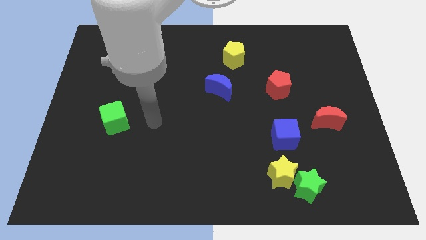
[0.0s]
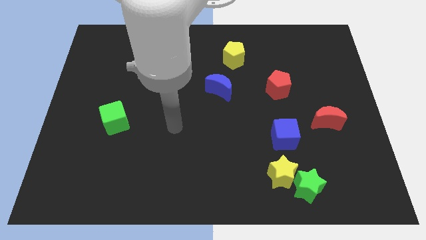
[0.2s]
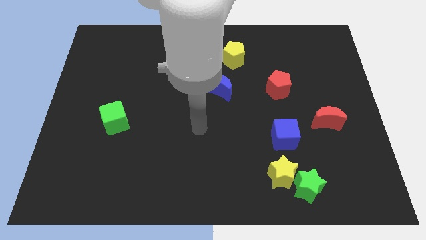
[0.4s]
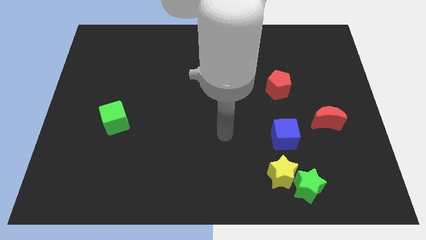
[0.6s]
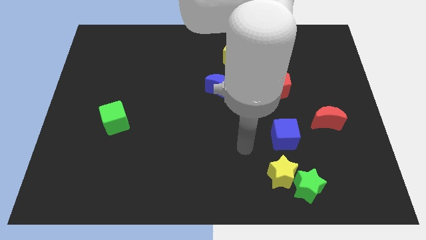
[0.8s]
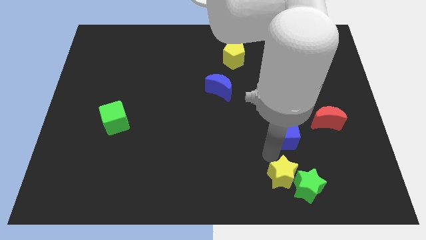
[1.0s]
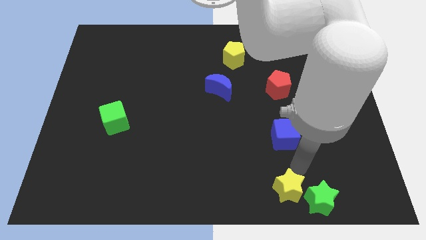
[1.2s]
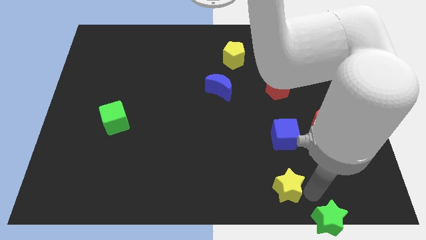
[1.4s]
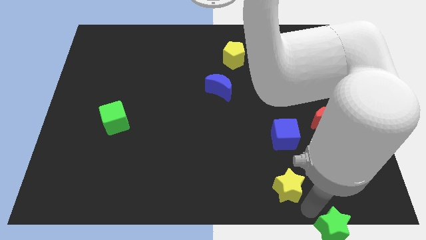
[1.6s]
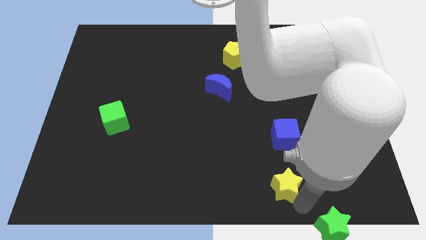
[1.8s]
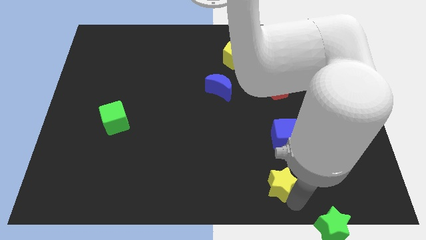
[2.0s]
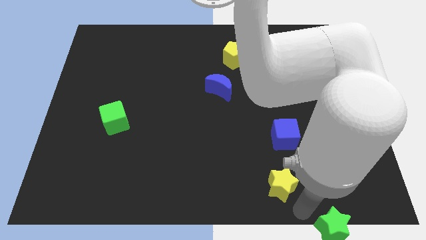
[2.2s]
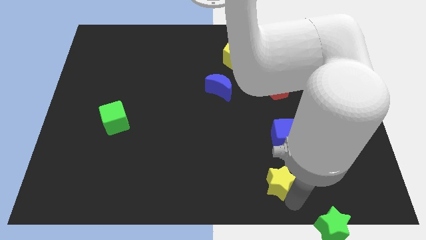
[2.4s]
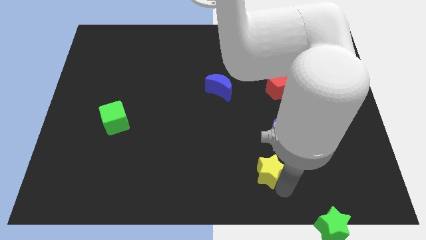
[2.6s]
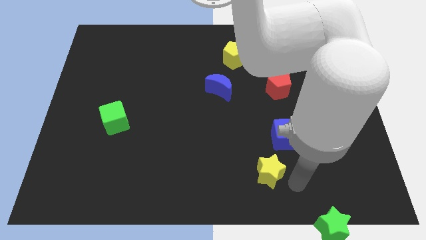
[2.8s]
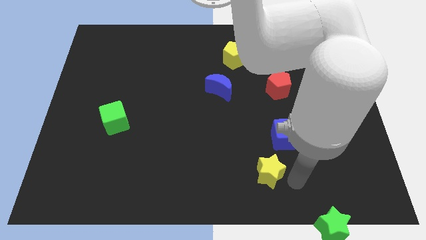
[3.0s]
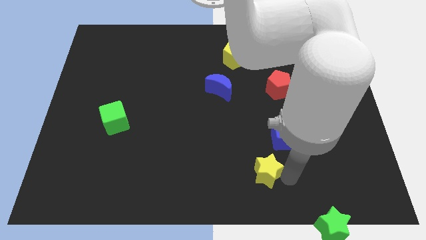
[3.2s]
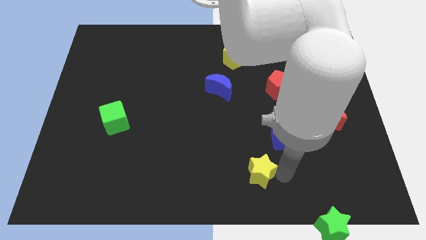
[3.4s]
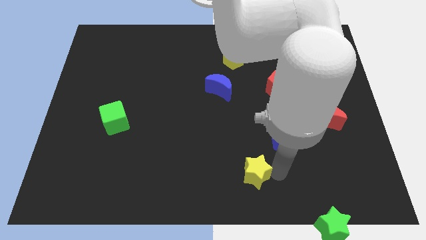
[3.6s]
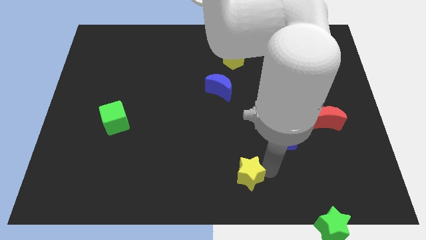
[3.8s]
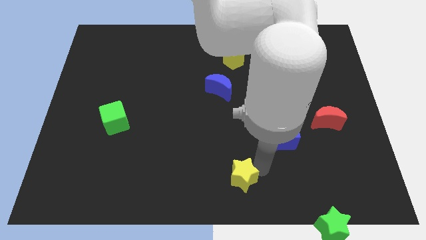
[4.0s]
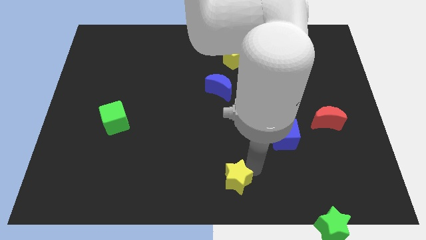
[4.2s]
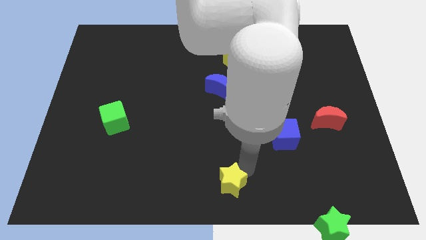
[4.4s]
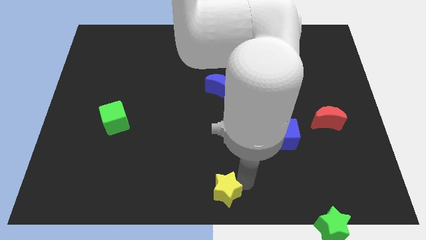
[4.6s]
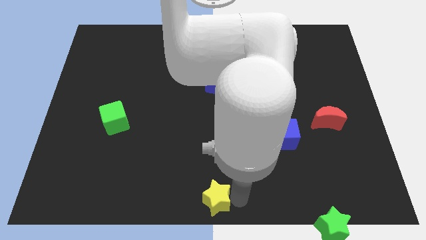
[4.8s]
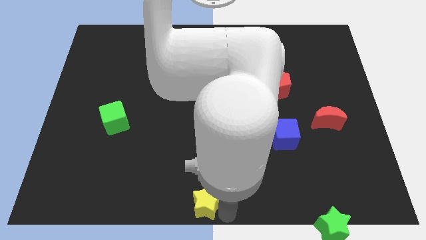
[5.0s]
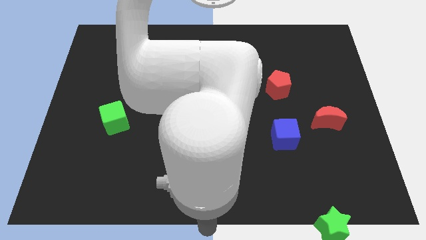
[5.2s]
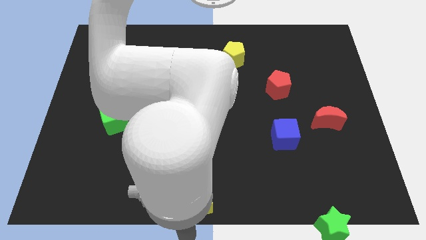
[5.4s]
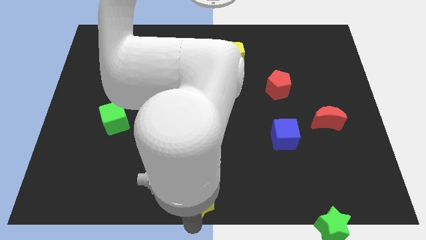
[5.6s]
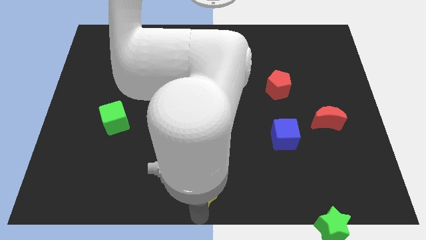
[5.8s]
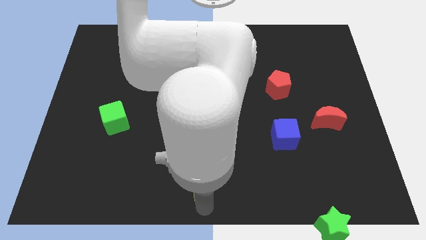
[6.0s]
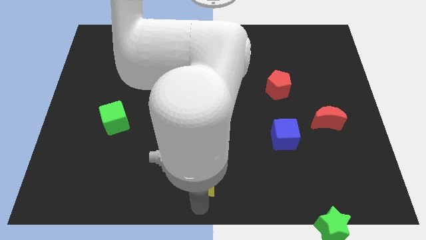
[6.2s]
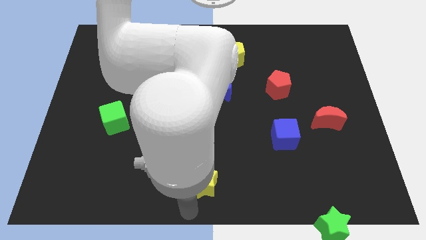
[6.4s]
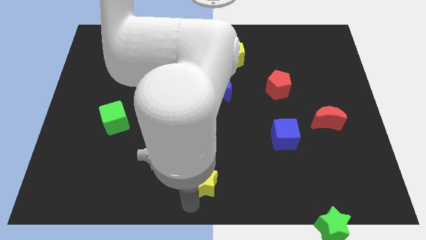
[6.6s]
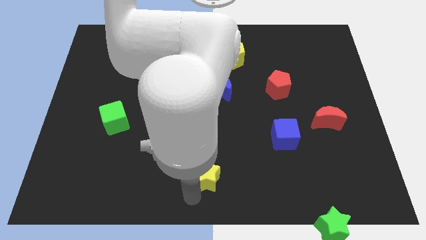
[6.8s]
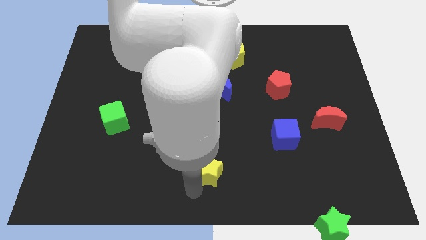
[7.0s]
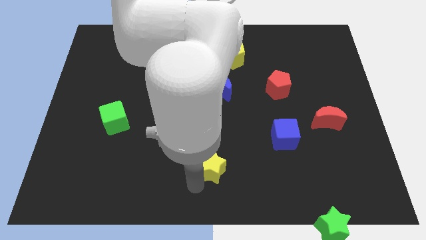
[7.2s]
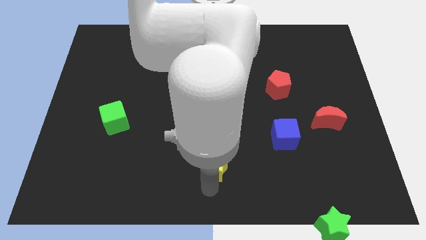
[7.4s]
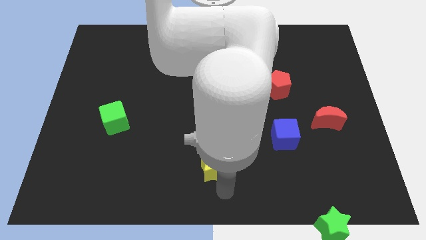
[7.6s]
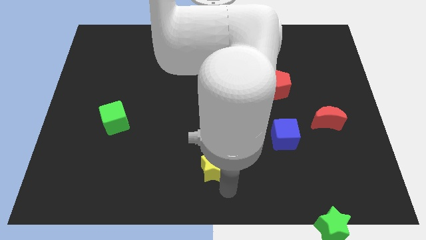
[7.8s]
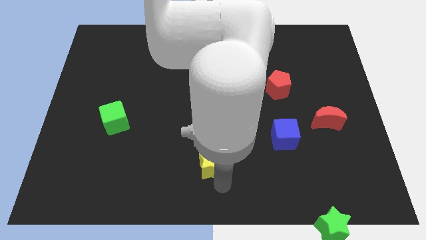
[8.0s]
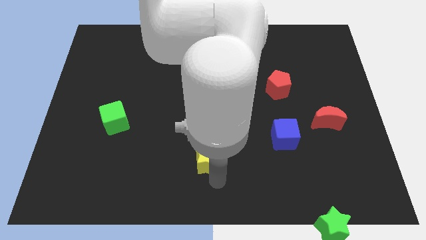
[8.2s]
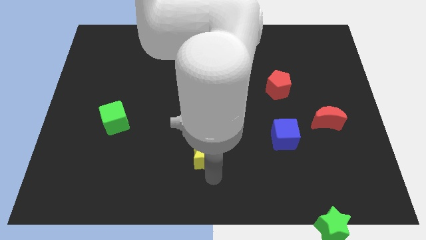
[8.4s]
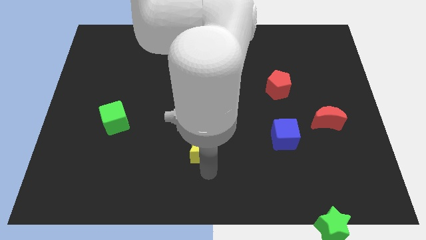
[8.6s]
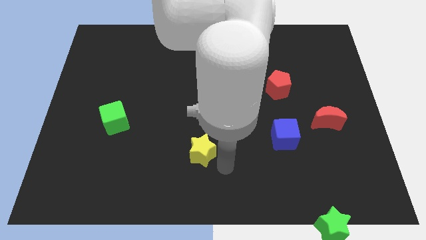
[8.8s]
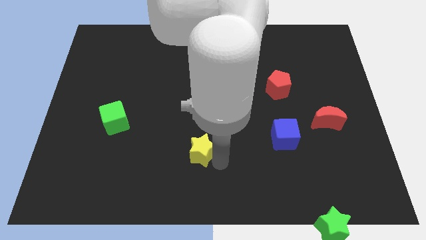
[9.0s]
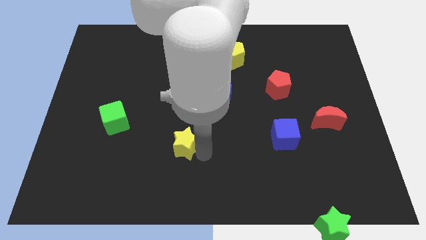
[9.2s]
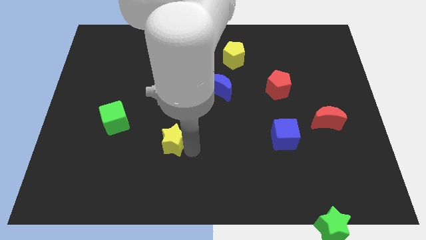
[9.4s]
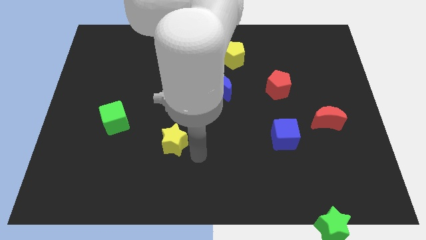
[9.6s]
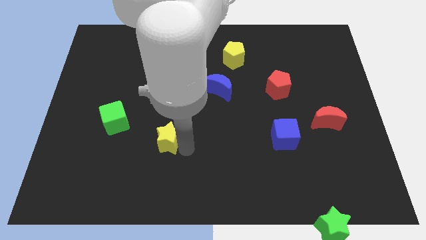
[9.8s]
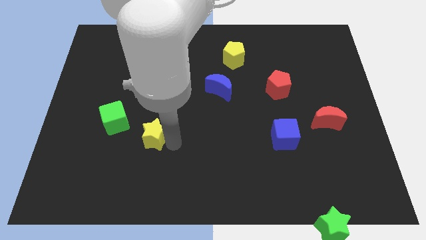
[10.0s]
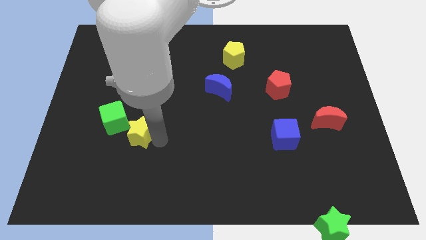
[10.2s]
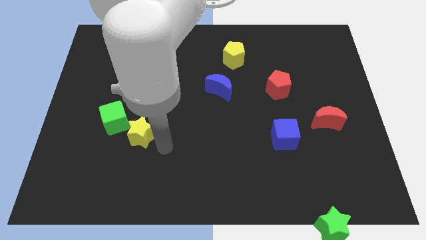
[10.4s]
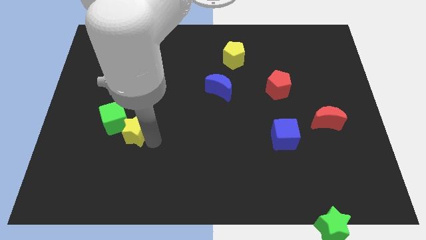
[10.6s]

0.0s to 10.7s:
push the yellow star next to the green cube
